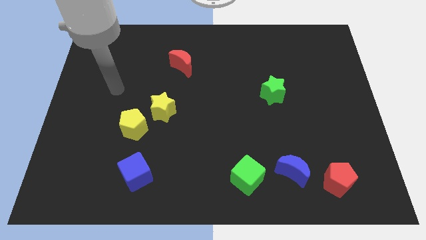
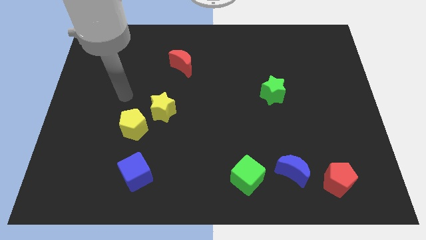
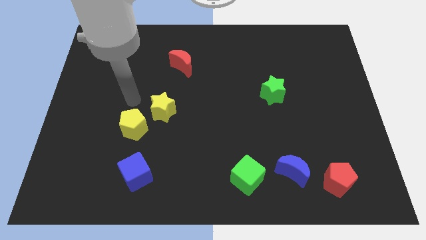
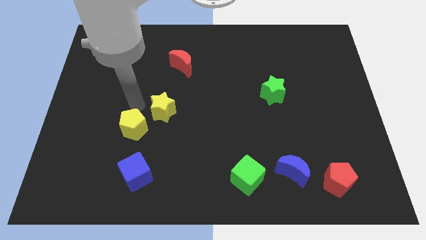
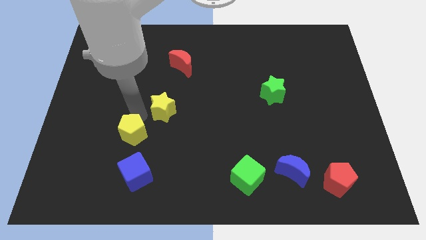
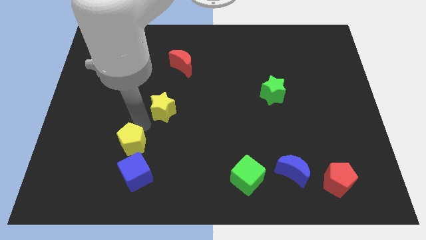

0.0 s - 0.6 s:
move the yellow star away from the yellow pentagon

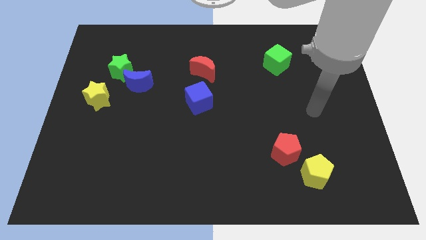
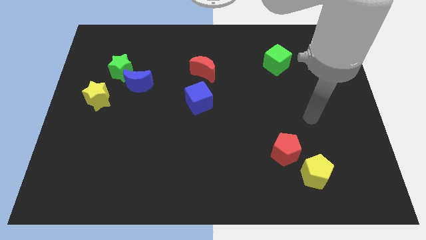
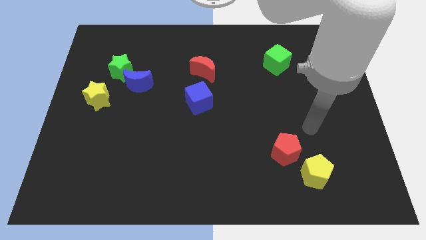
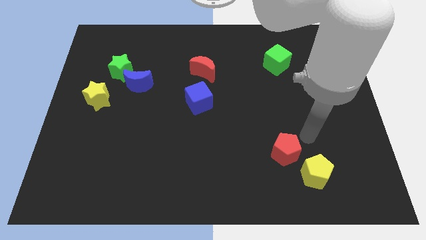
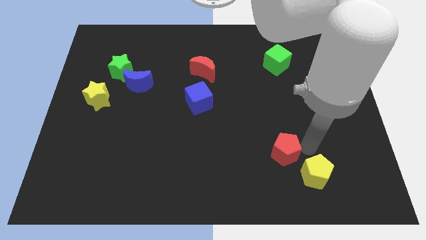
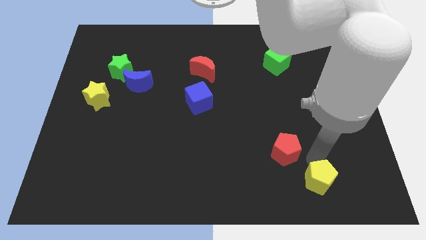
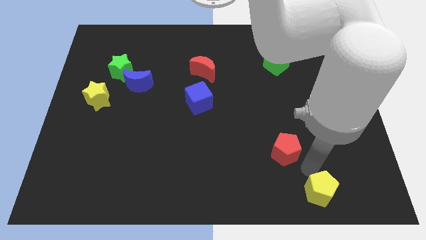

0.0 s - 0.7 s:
move the red pentagon away from the yellow pentagon

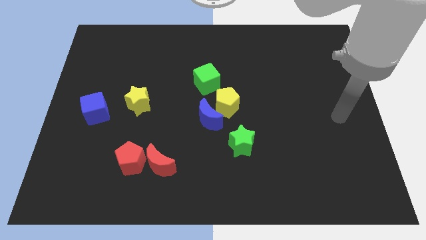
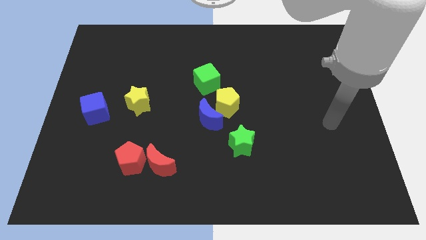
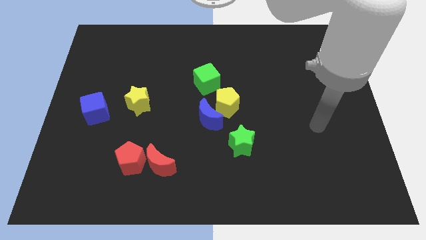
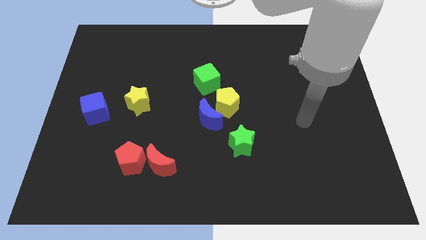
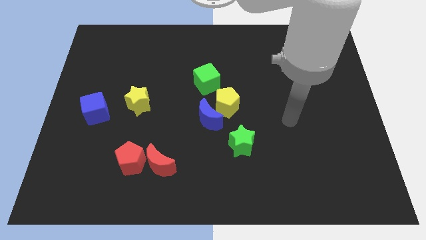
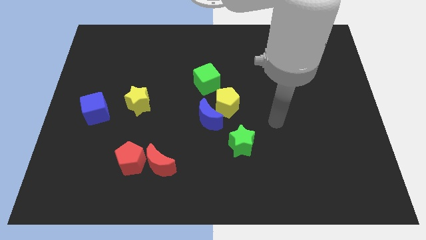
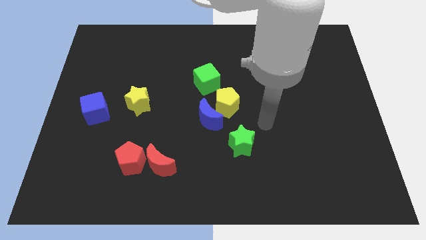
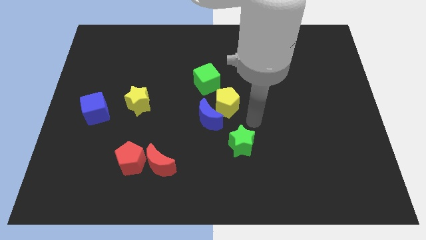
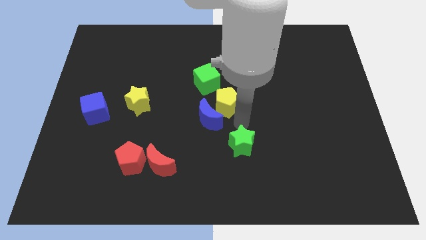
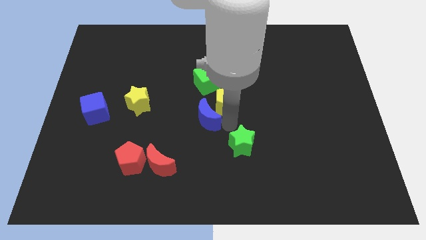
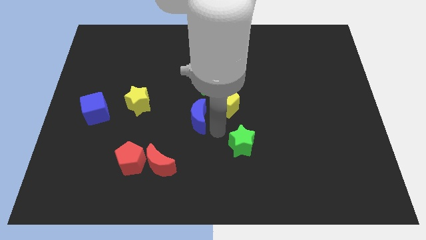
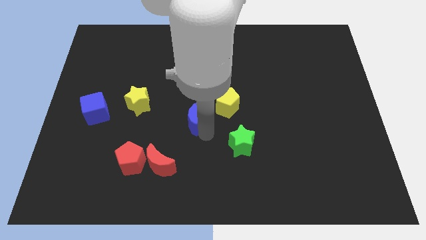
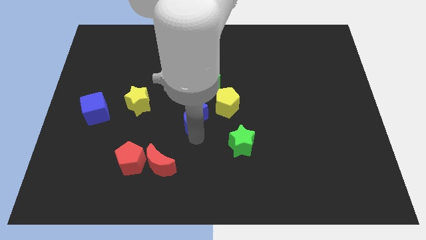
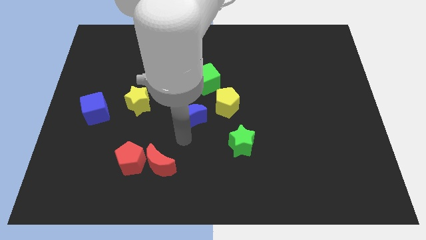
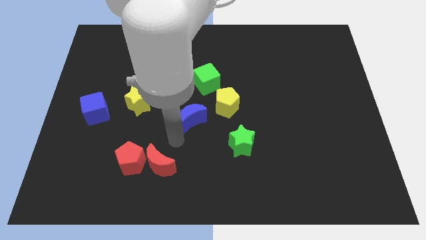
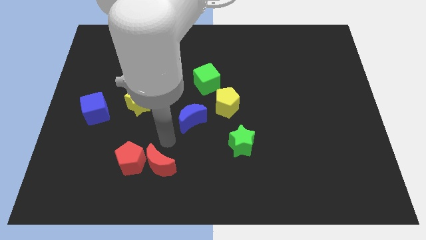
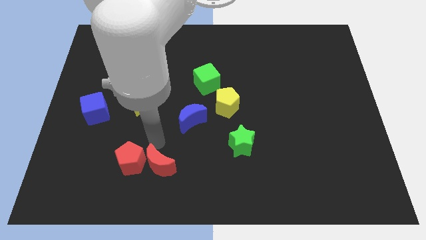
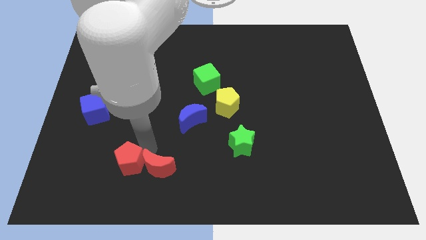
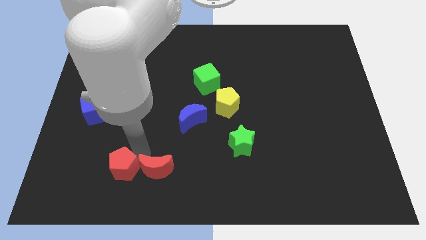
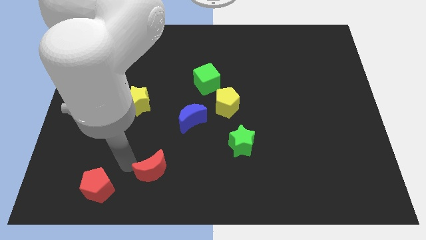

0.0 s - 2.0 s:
pull the red moon apart from the red pentagon

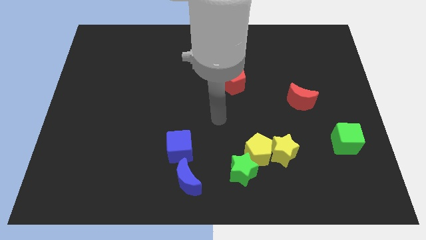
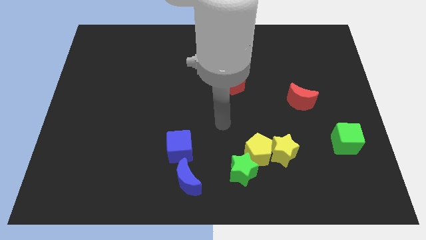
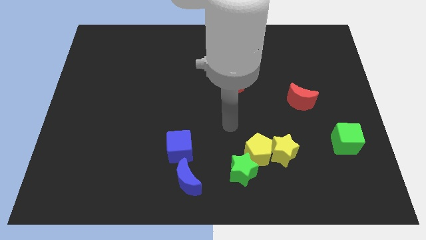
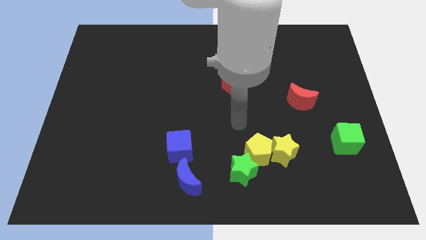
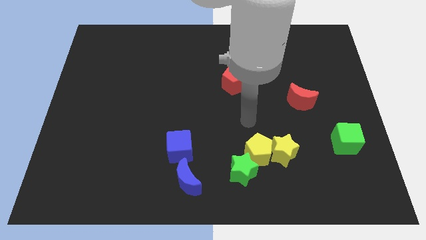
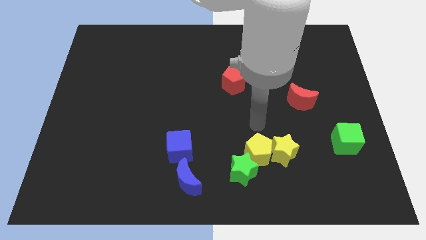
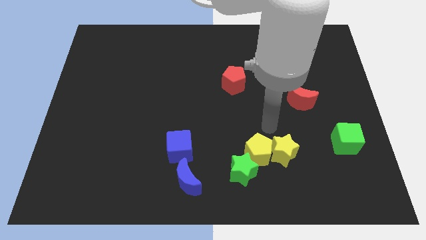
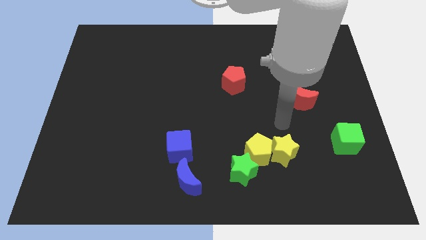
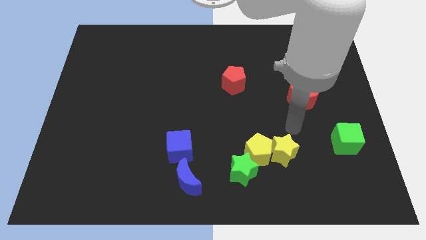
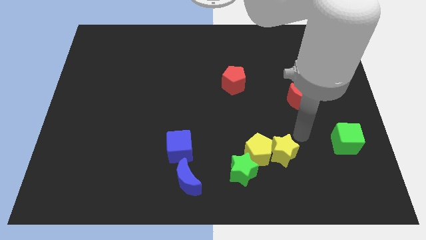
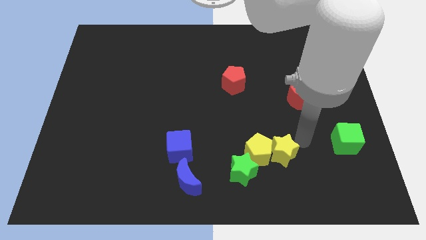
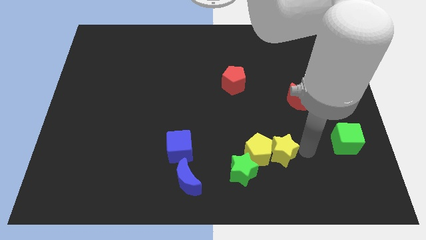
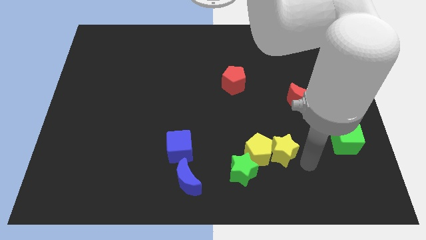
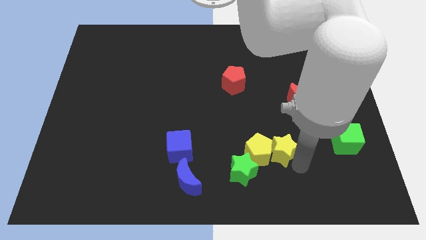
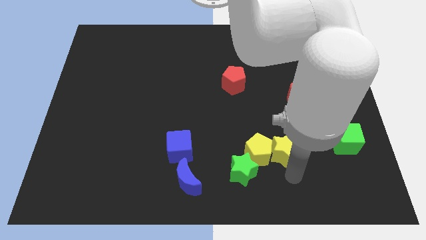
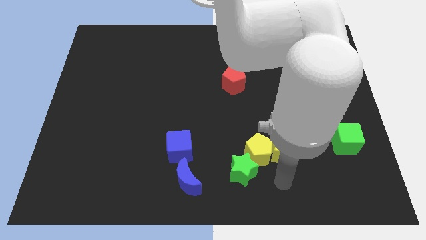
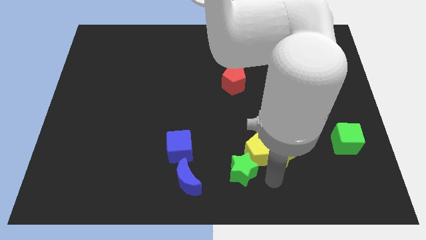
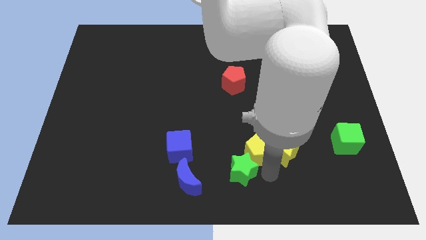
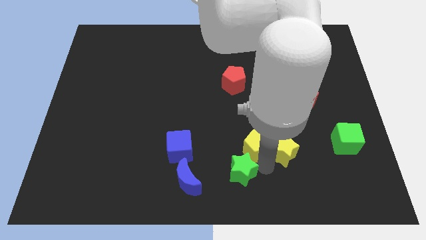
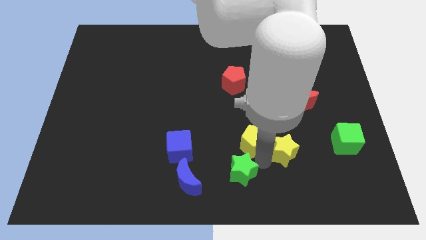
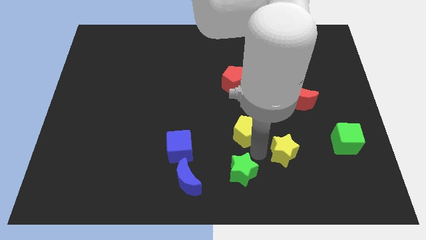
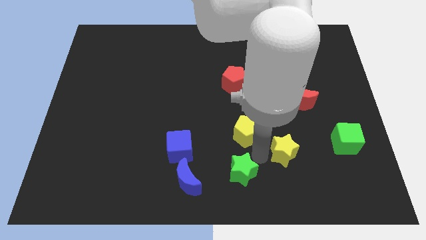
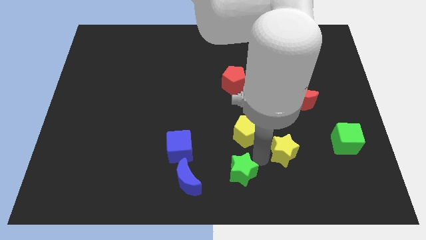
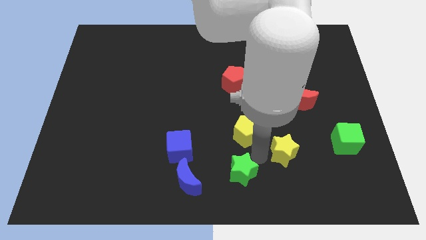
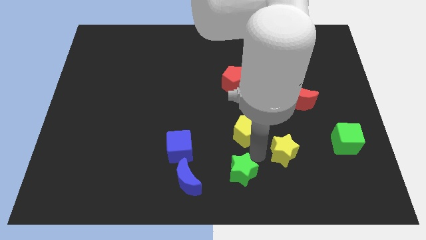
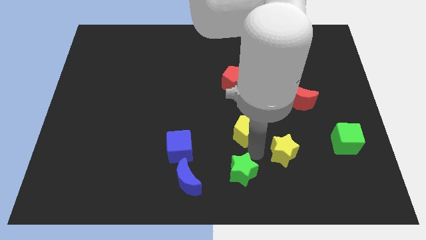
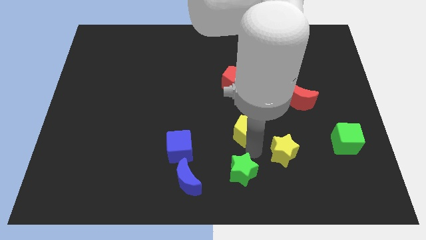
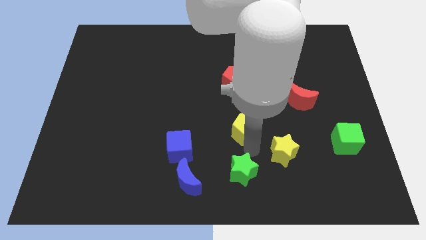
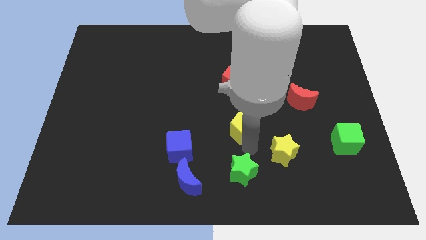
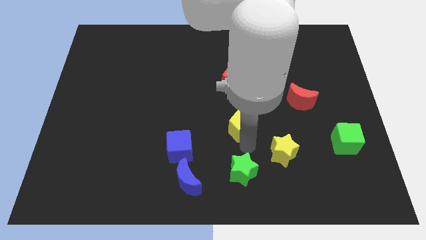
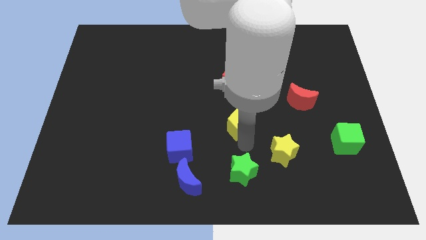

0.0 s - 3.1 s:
pull the yellow pentagon apart from the yellow star and green star

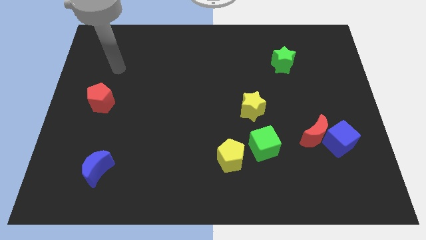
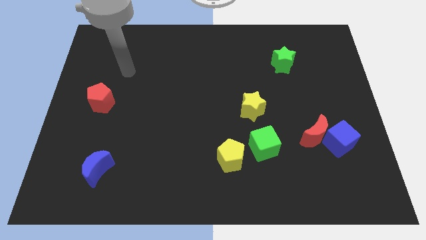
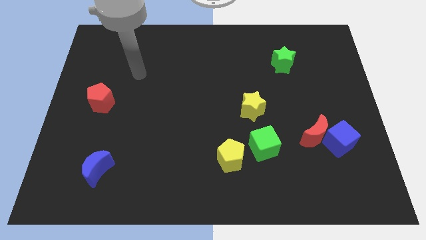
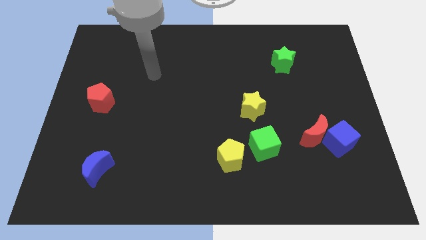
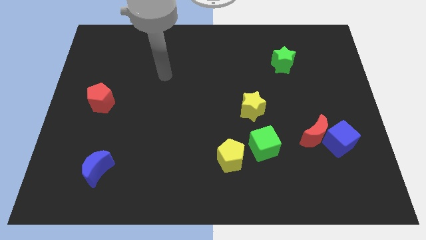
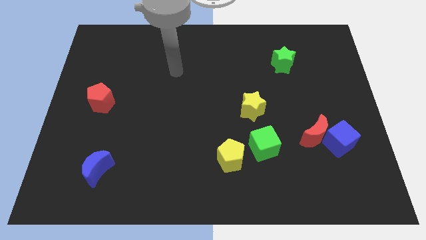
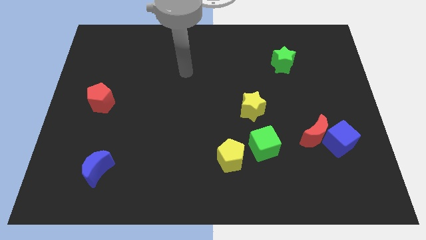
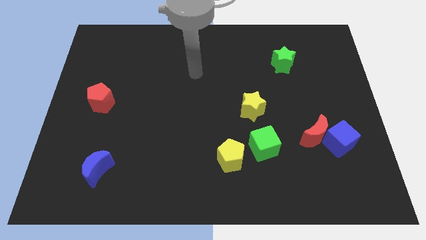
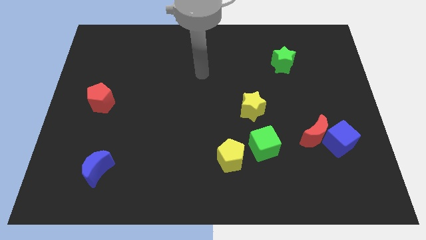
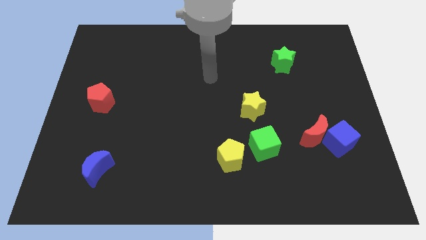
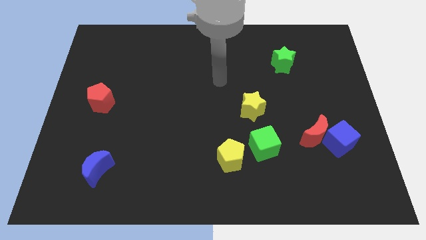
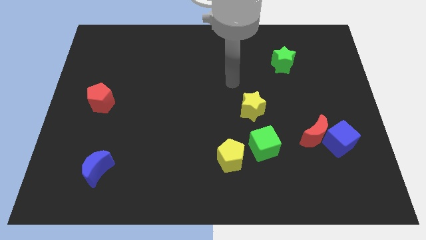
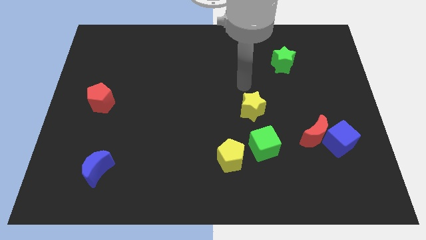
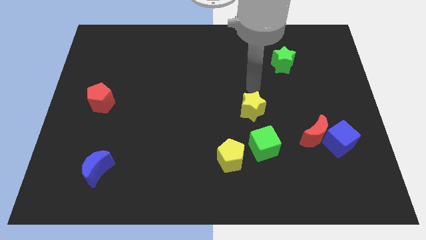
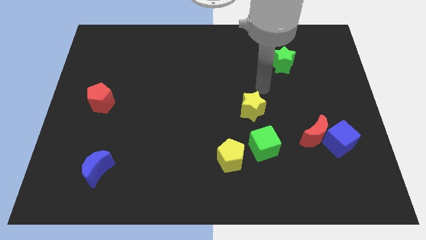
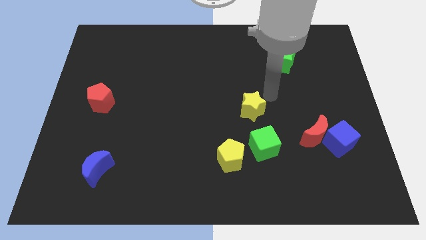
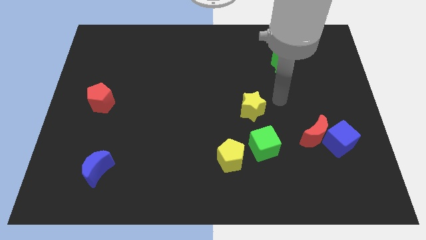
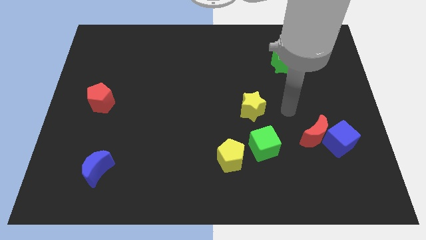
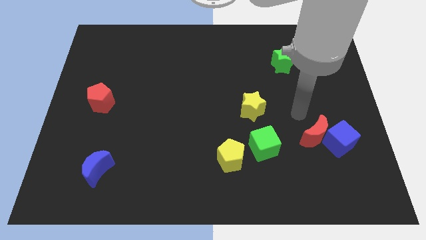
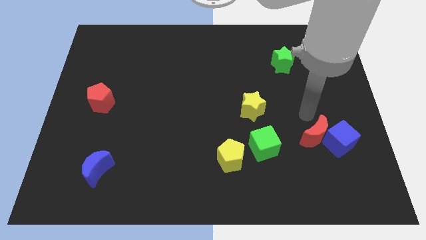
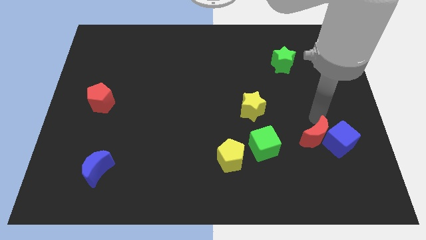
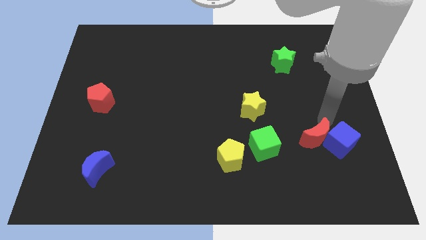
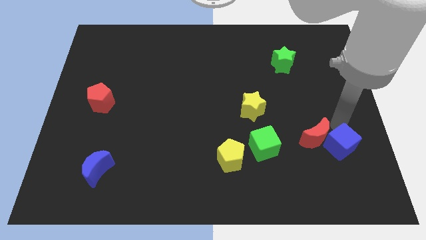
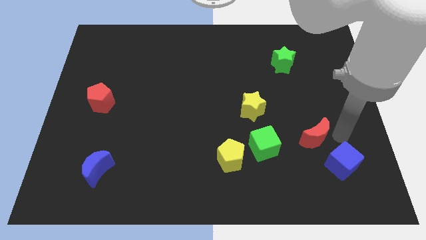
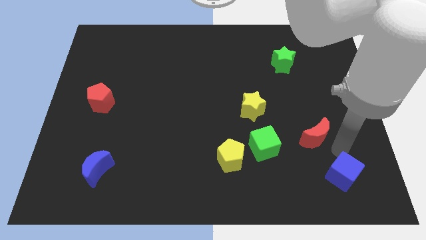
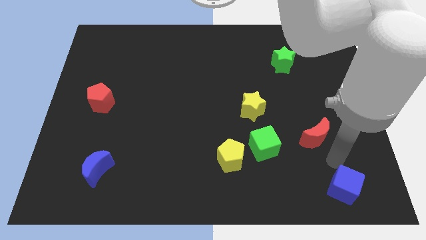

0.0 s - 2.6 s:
pull the red moon apart from the blue cube

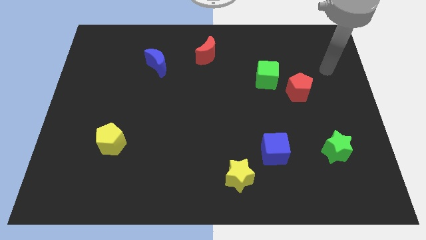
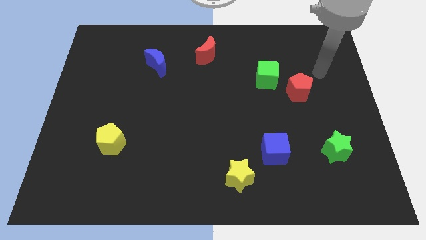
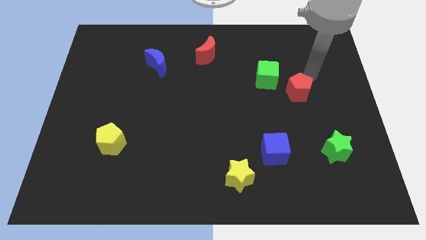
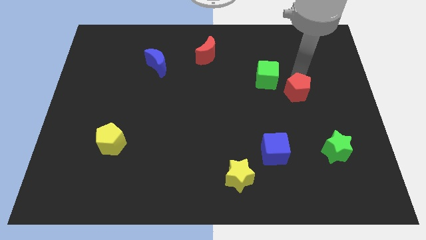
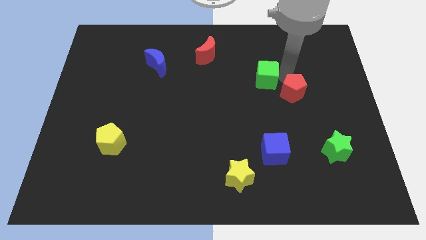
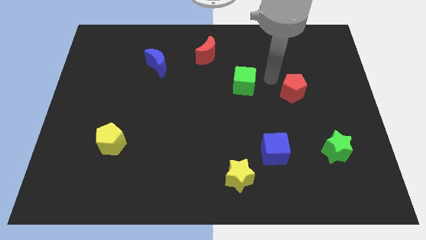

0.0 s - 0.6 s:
move the red pentagon away from the green cube
